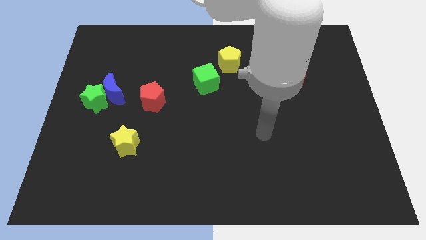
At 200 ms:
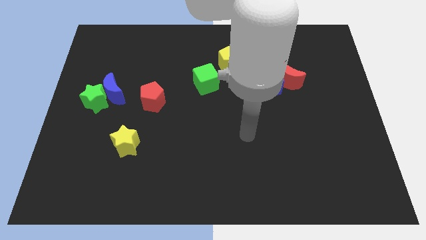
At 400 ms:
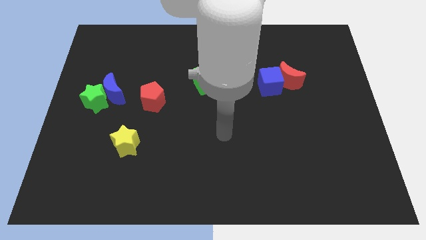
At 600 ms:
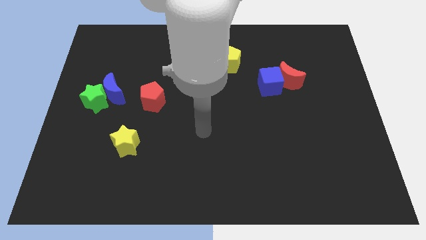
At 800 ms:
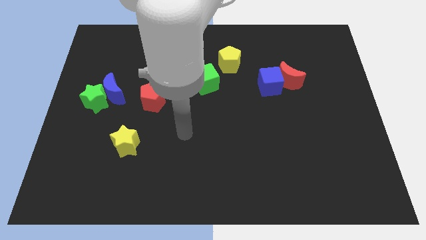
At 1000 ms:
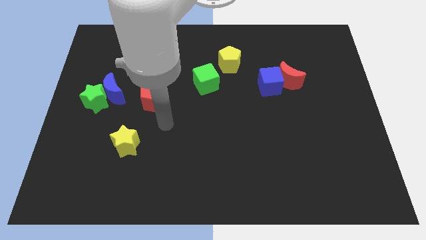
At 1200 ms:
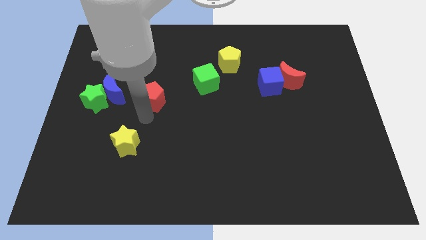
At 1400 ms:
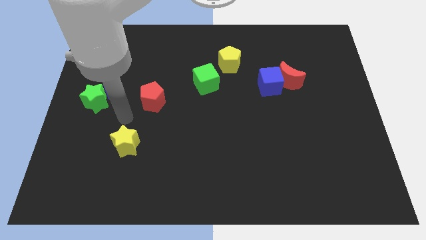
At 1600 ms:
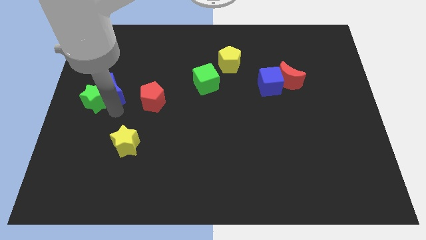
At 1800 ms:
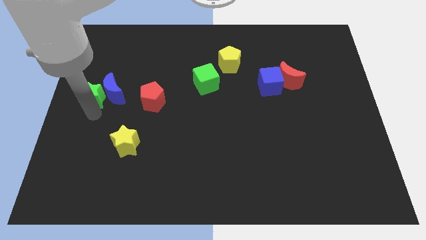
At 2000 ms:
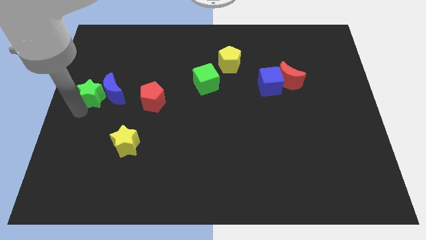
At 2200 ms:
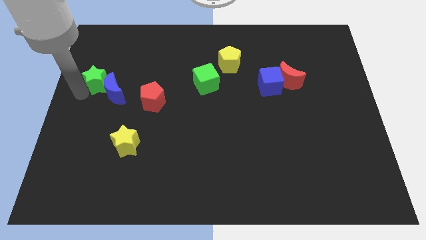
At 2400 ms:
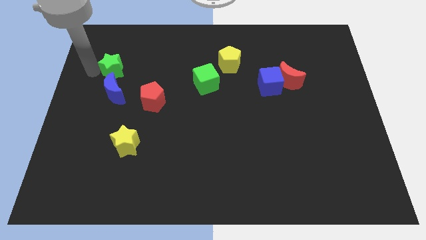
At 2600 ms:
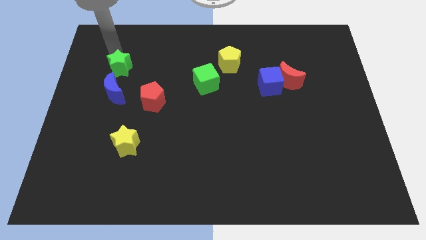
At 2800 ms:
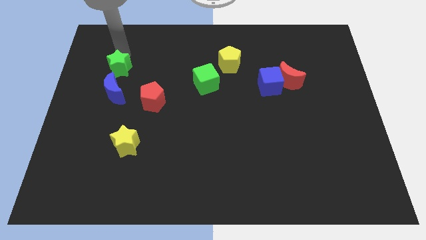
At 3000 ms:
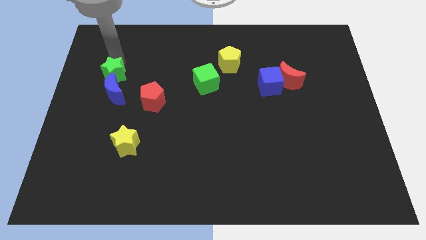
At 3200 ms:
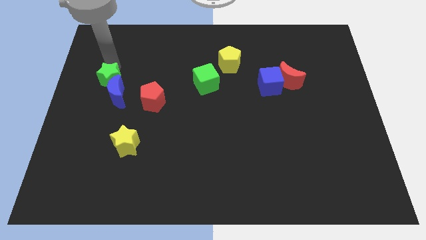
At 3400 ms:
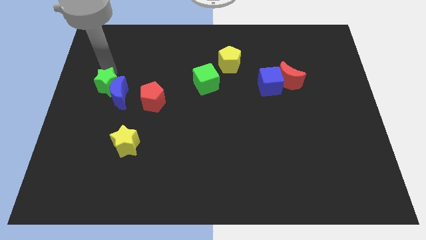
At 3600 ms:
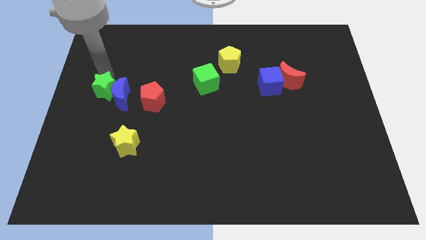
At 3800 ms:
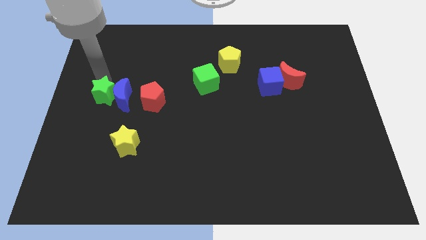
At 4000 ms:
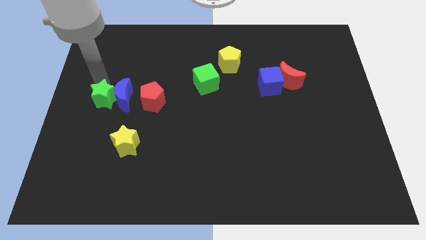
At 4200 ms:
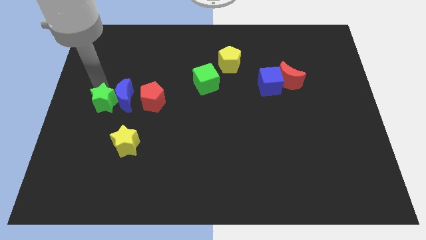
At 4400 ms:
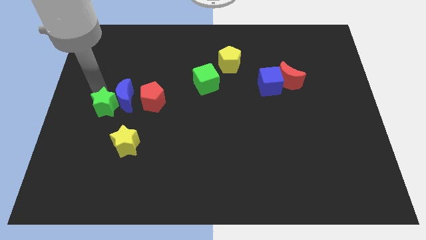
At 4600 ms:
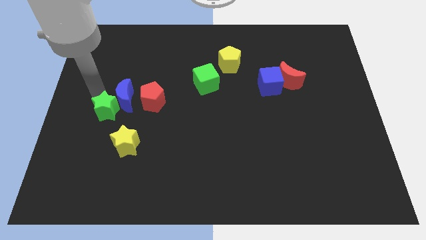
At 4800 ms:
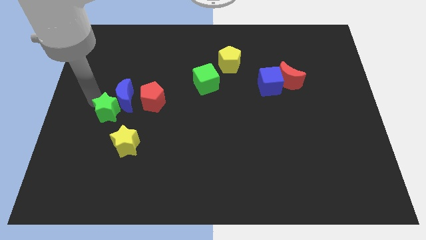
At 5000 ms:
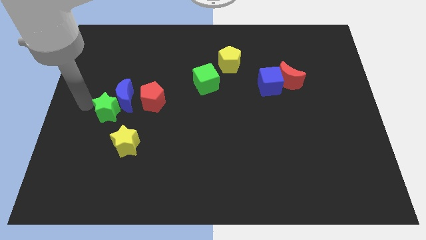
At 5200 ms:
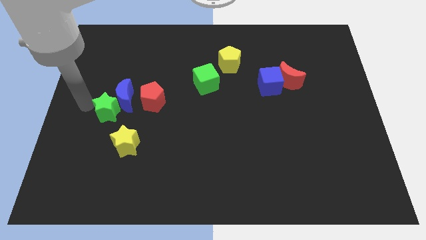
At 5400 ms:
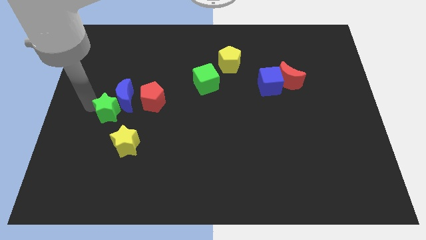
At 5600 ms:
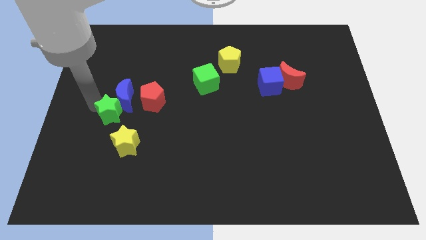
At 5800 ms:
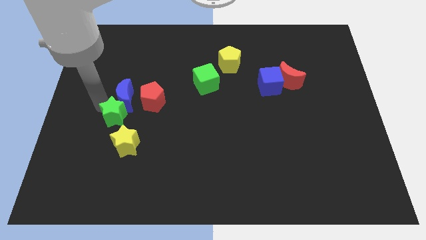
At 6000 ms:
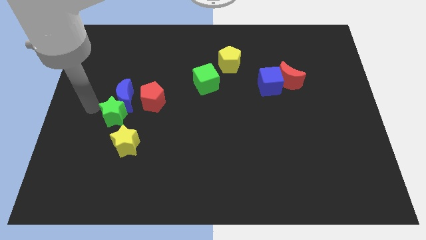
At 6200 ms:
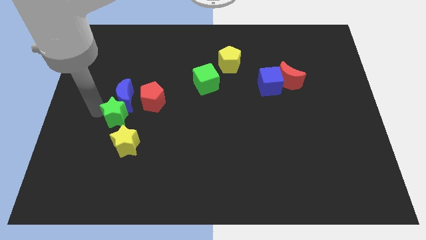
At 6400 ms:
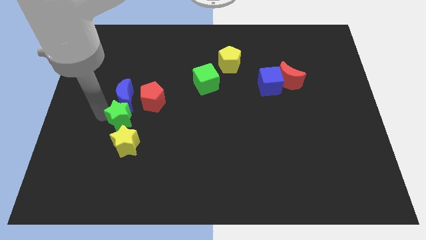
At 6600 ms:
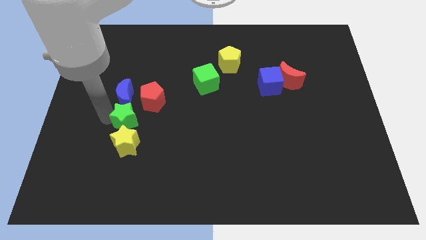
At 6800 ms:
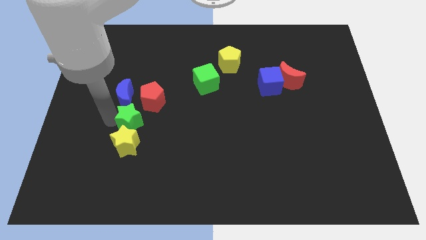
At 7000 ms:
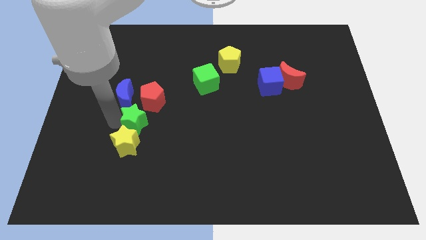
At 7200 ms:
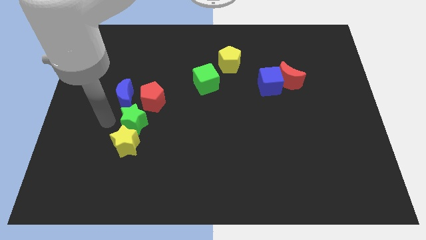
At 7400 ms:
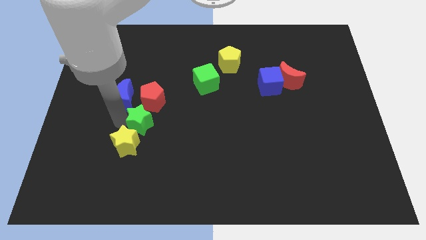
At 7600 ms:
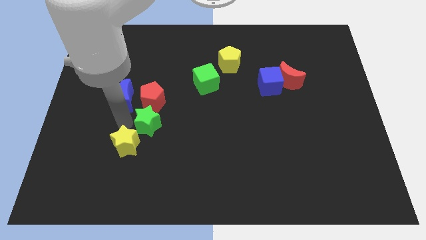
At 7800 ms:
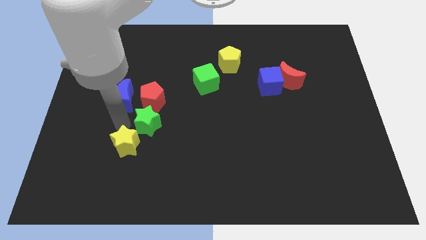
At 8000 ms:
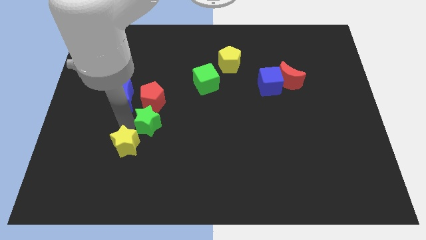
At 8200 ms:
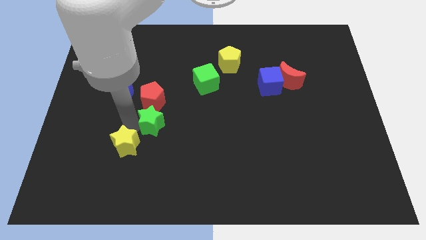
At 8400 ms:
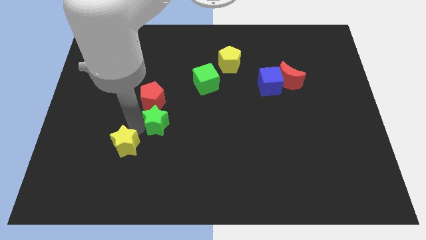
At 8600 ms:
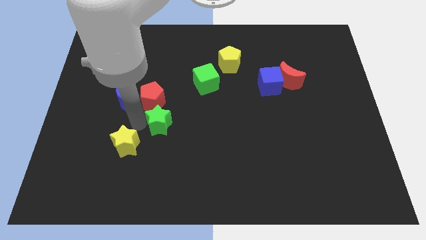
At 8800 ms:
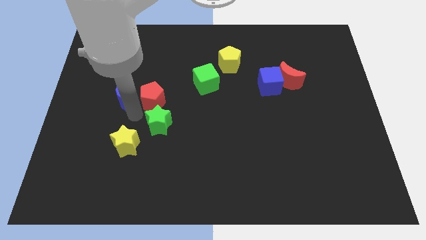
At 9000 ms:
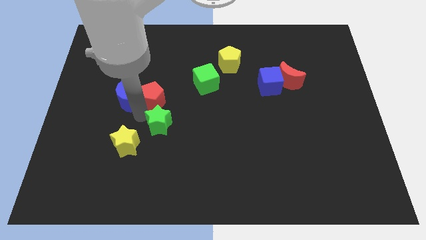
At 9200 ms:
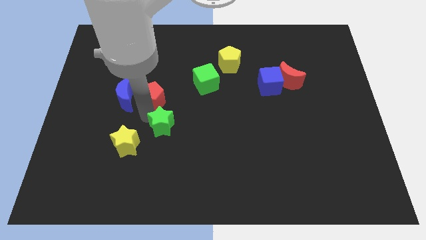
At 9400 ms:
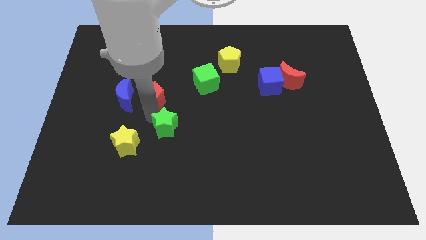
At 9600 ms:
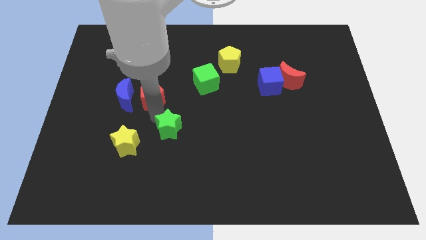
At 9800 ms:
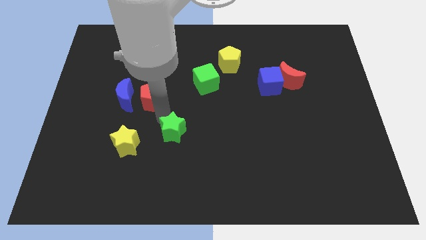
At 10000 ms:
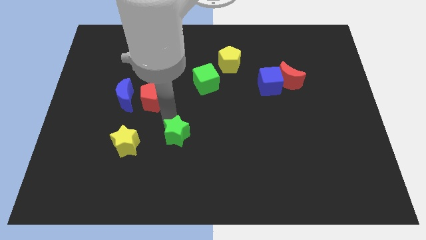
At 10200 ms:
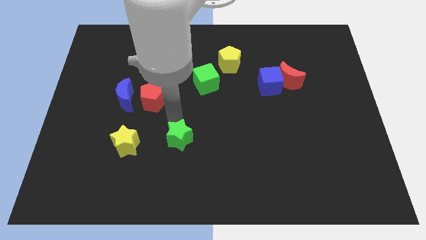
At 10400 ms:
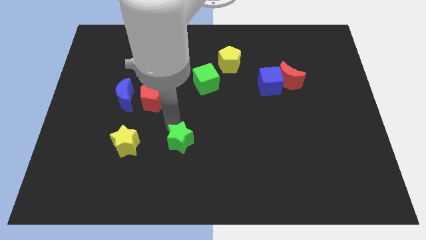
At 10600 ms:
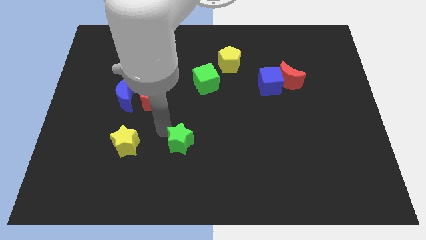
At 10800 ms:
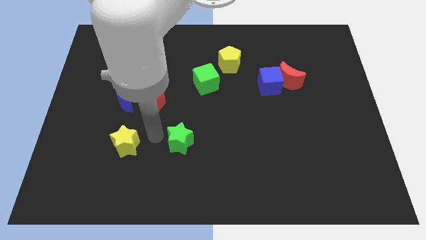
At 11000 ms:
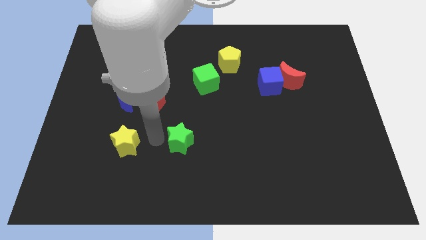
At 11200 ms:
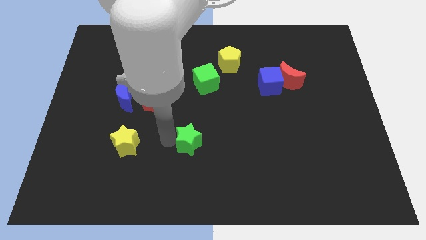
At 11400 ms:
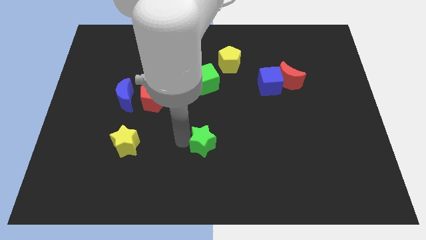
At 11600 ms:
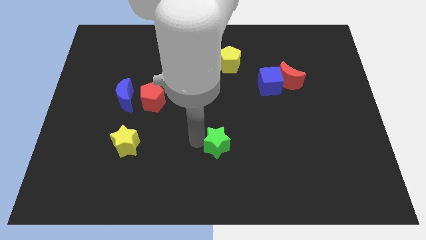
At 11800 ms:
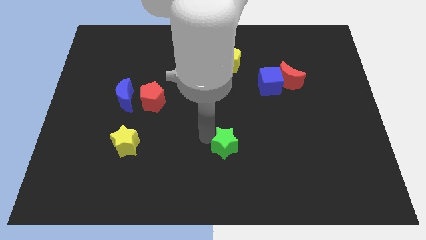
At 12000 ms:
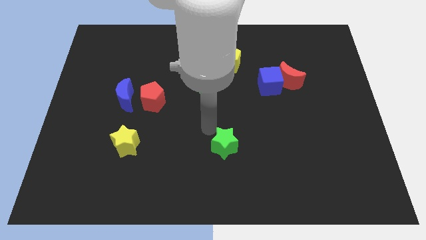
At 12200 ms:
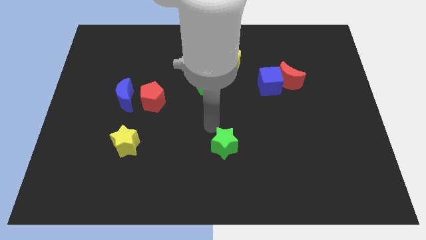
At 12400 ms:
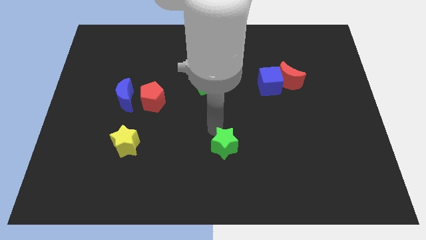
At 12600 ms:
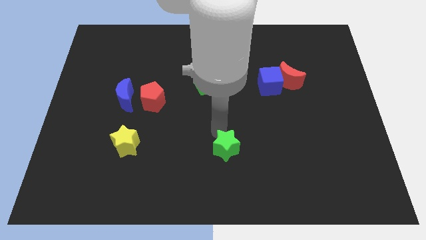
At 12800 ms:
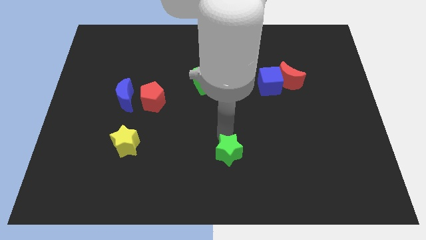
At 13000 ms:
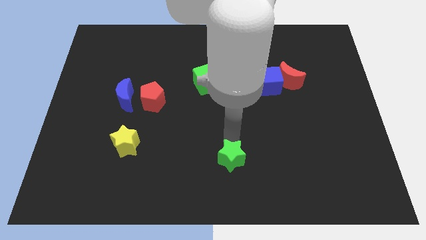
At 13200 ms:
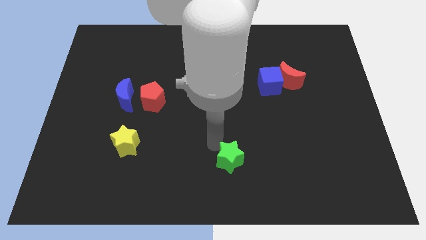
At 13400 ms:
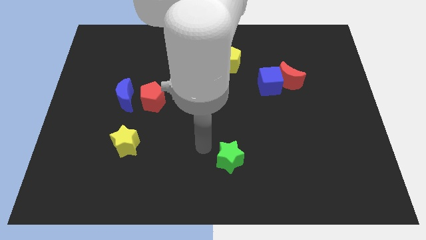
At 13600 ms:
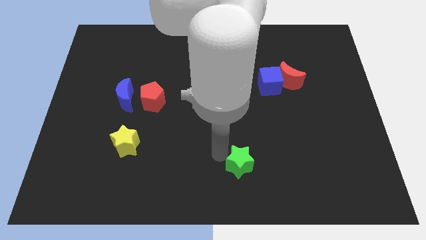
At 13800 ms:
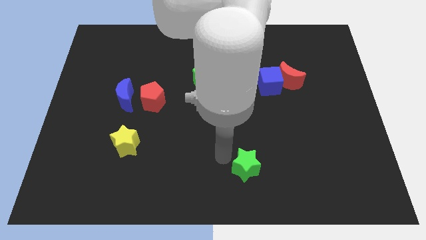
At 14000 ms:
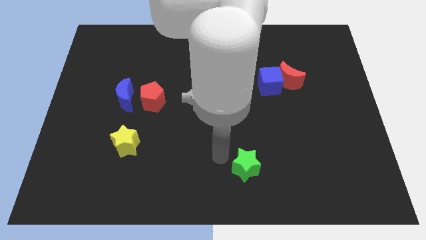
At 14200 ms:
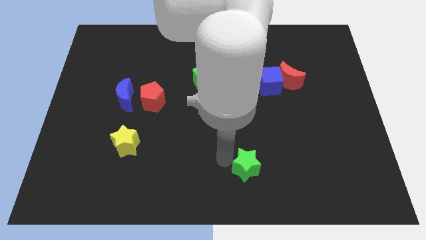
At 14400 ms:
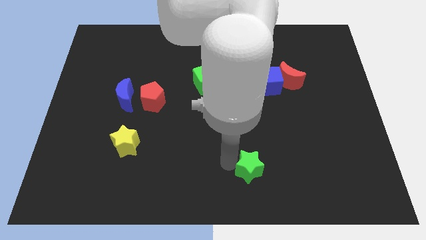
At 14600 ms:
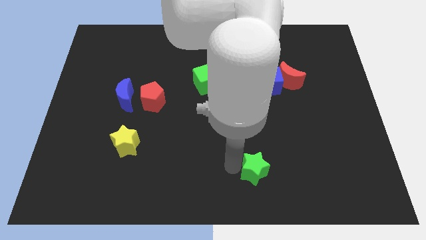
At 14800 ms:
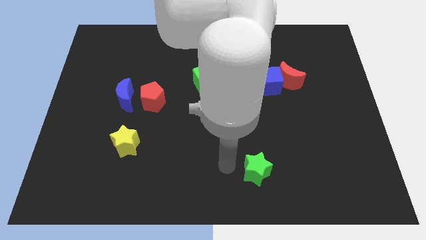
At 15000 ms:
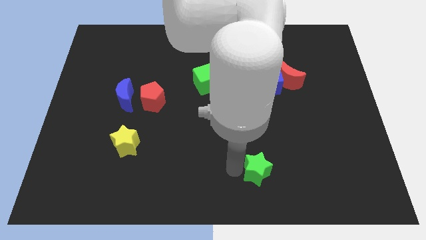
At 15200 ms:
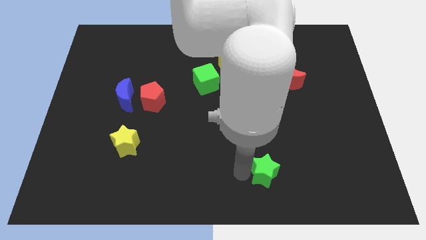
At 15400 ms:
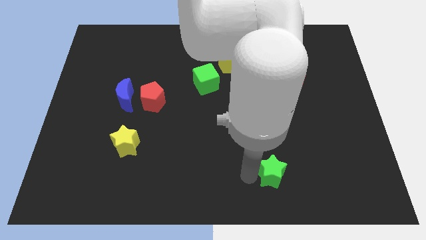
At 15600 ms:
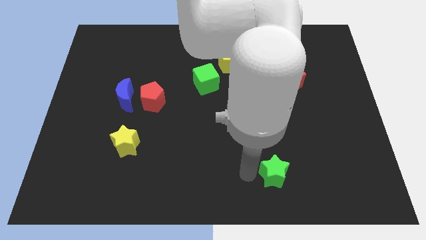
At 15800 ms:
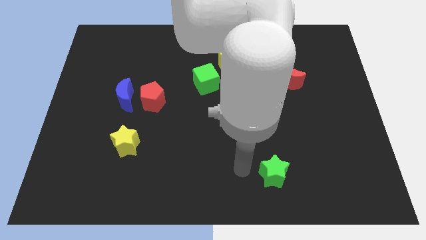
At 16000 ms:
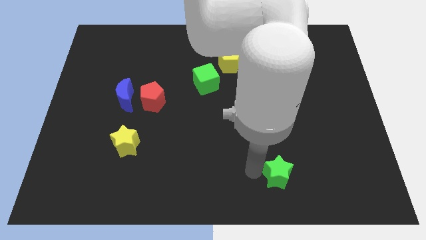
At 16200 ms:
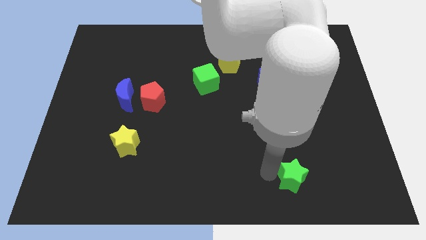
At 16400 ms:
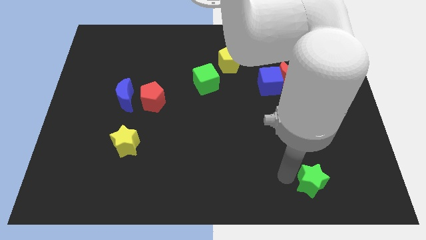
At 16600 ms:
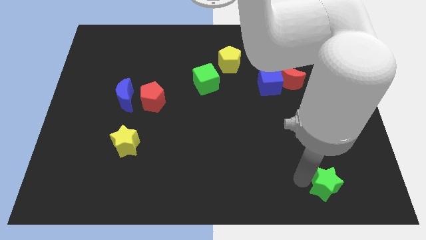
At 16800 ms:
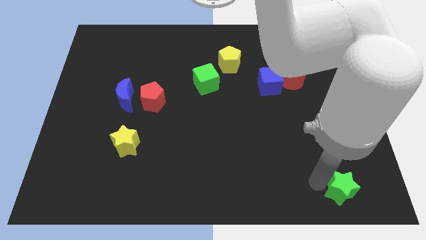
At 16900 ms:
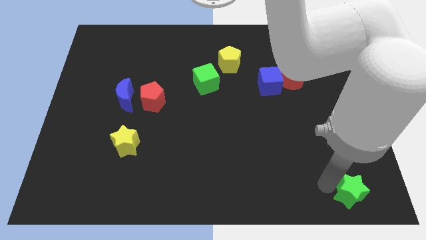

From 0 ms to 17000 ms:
move the green star to the bottom right corner
